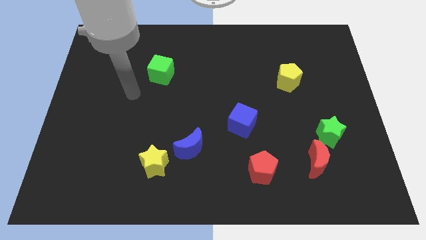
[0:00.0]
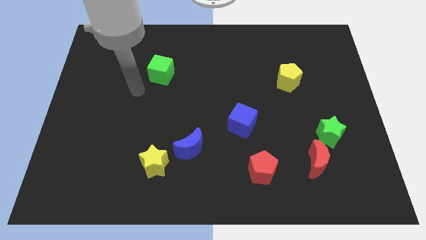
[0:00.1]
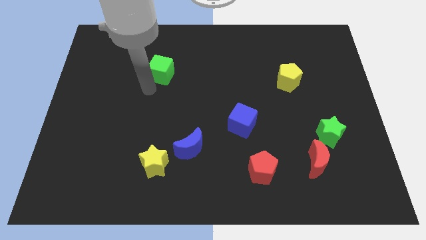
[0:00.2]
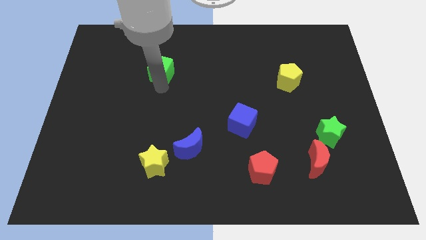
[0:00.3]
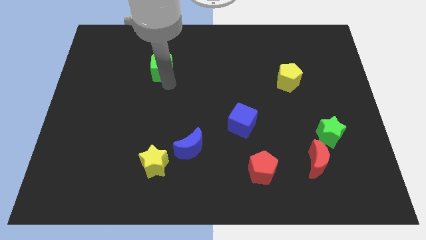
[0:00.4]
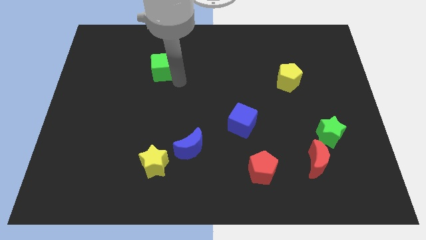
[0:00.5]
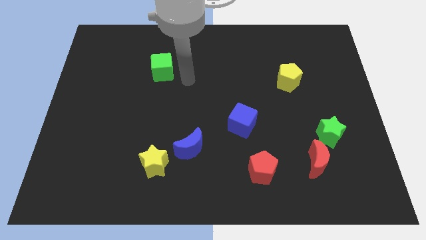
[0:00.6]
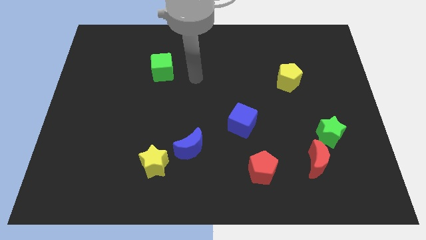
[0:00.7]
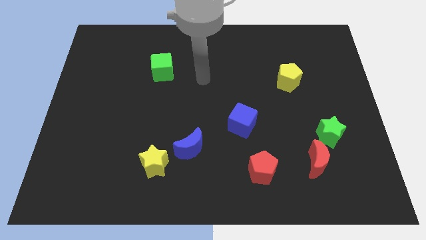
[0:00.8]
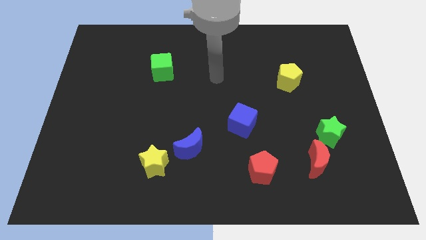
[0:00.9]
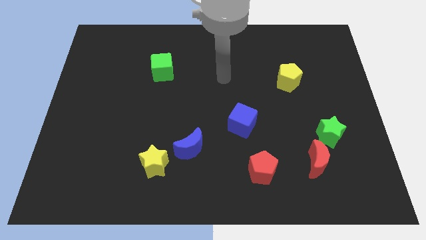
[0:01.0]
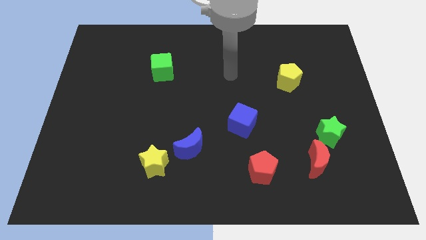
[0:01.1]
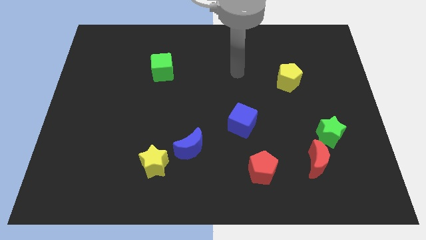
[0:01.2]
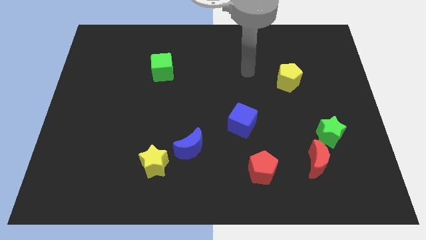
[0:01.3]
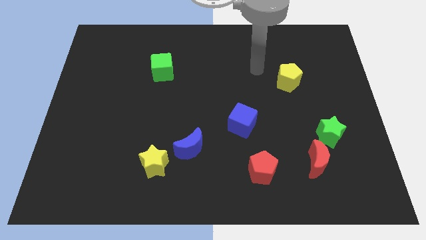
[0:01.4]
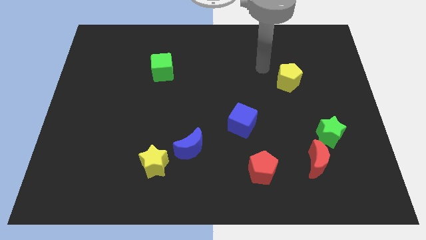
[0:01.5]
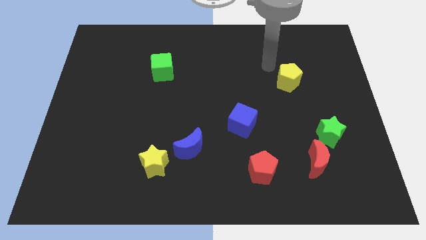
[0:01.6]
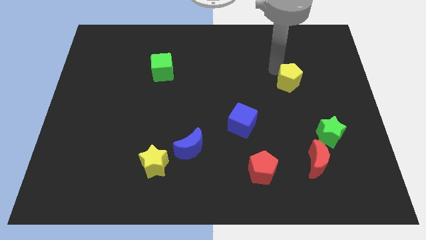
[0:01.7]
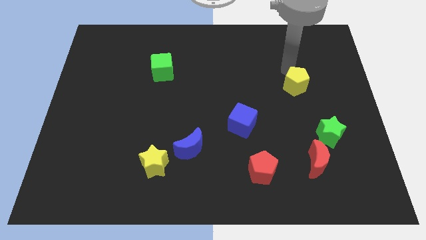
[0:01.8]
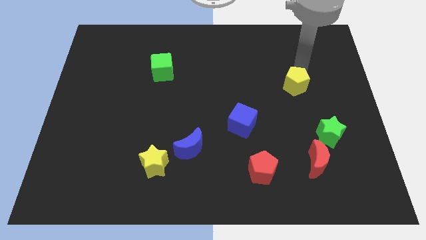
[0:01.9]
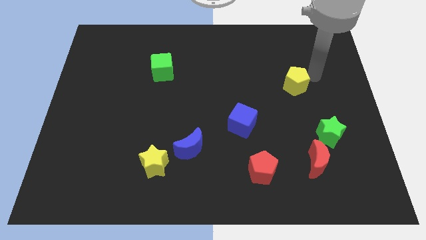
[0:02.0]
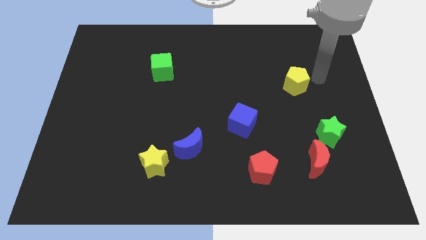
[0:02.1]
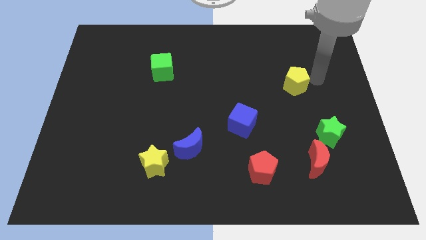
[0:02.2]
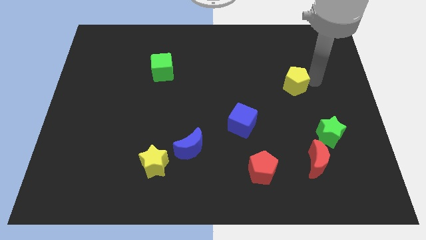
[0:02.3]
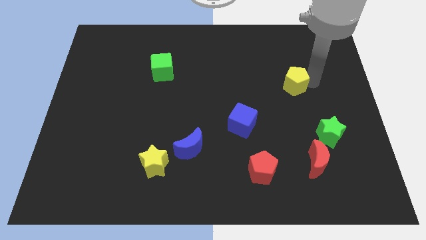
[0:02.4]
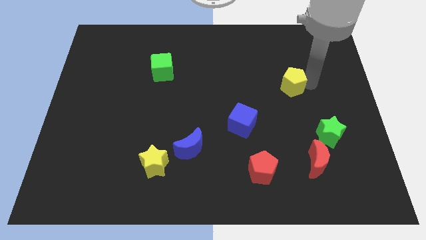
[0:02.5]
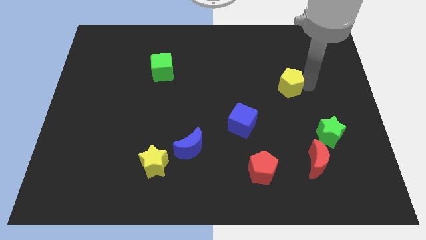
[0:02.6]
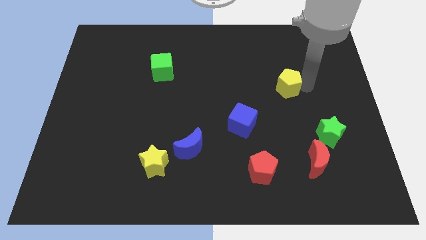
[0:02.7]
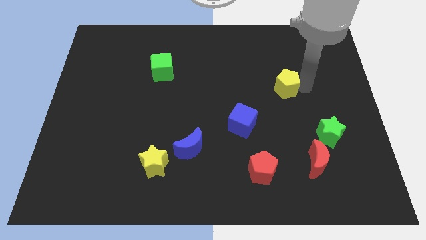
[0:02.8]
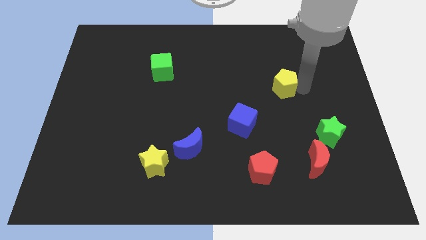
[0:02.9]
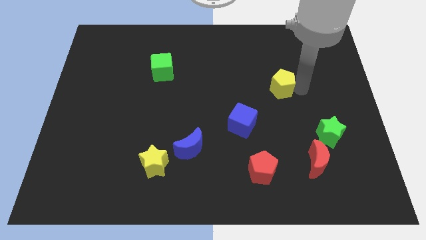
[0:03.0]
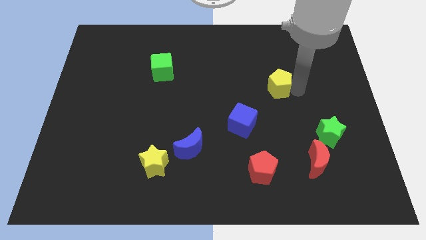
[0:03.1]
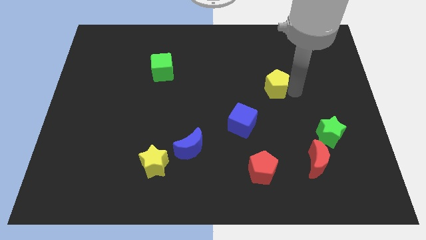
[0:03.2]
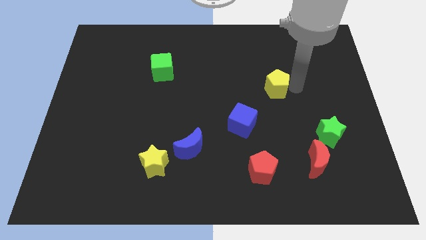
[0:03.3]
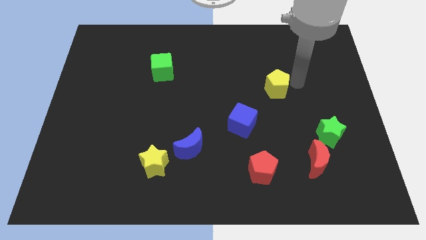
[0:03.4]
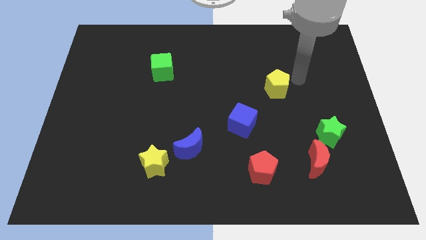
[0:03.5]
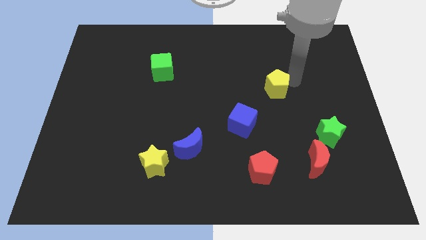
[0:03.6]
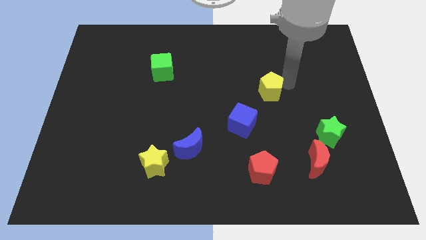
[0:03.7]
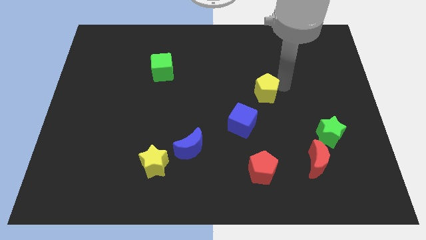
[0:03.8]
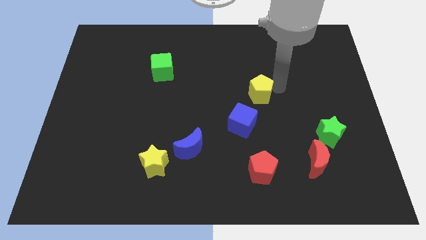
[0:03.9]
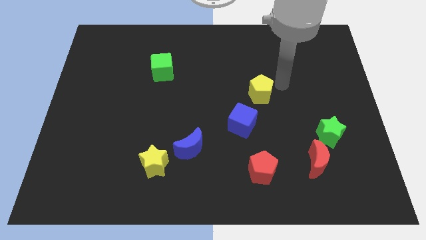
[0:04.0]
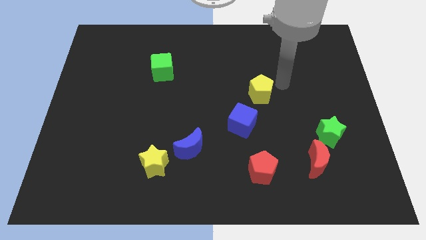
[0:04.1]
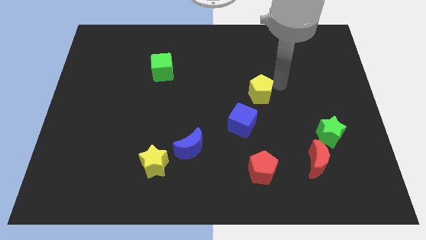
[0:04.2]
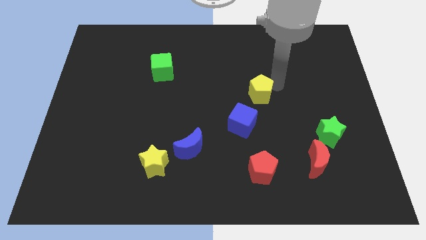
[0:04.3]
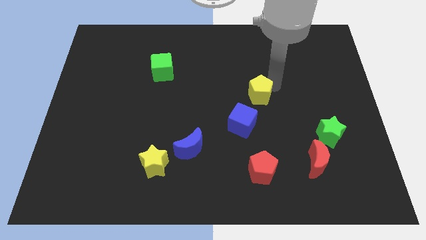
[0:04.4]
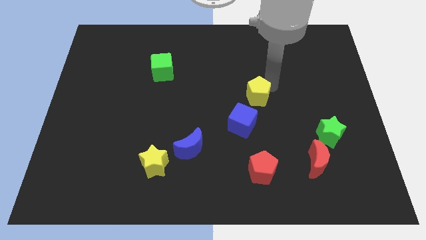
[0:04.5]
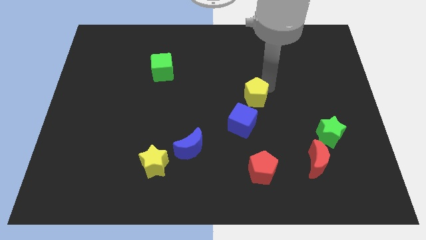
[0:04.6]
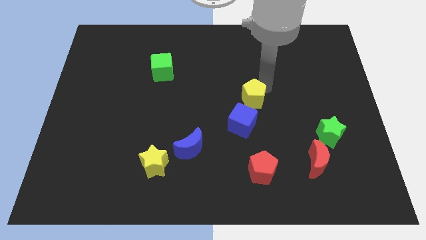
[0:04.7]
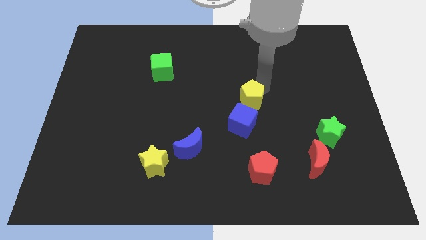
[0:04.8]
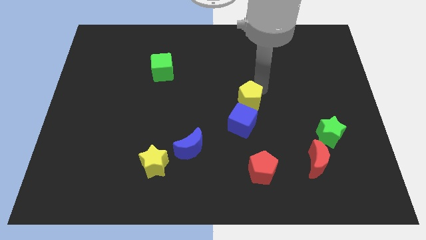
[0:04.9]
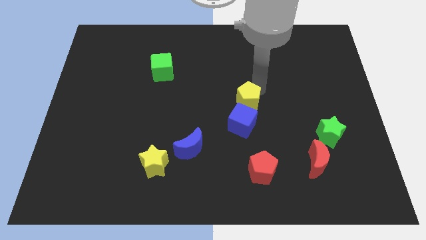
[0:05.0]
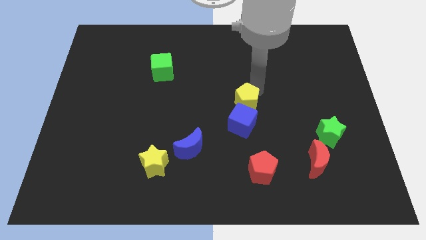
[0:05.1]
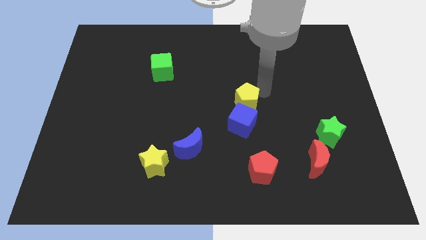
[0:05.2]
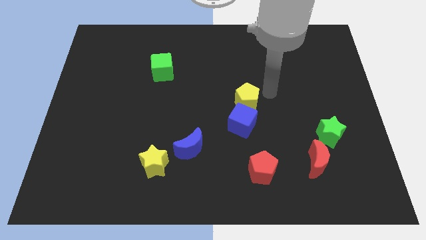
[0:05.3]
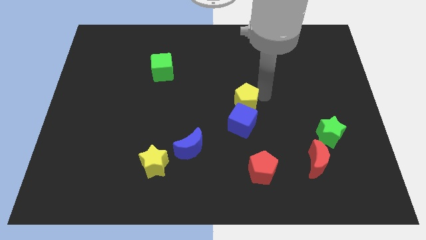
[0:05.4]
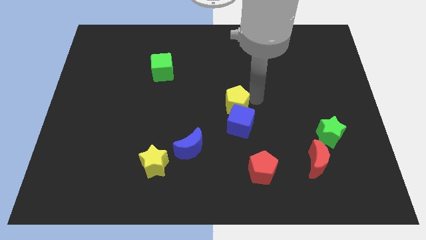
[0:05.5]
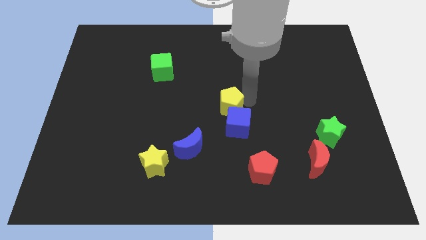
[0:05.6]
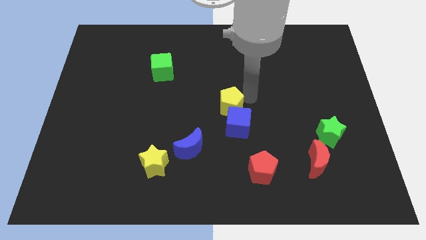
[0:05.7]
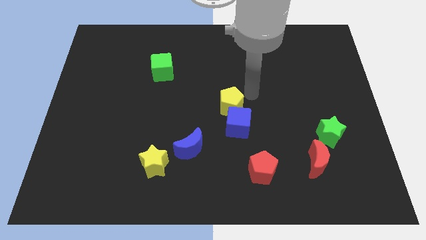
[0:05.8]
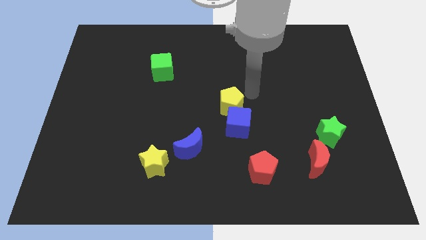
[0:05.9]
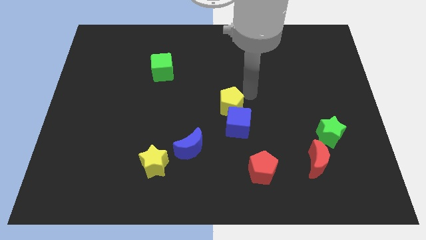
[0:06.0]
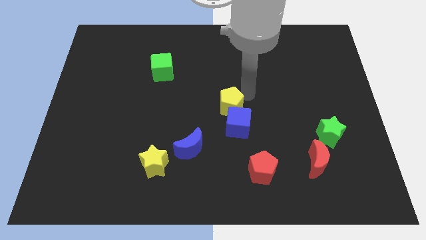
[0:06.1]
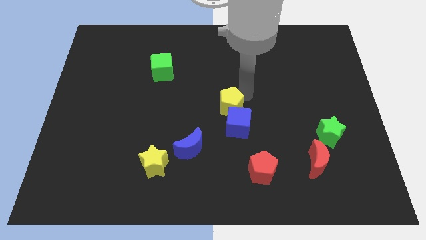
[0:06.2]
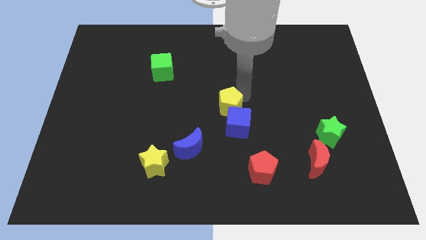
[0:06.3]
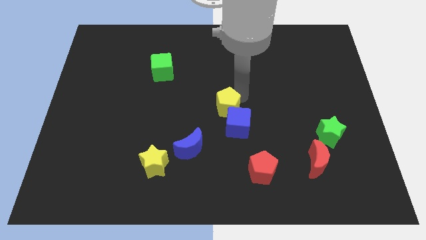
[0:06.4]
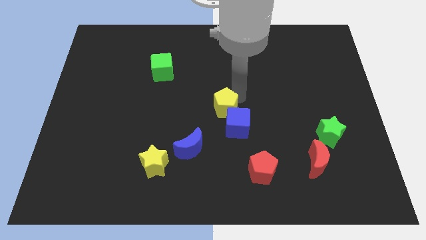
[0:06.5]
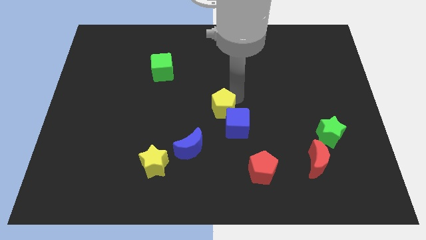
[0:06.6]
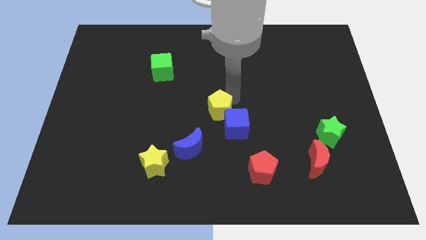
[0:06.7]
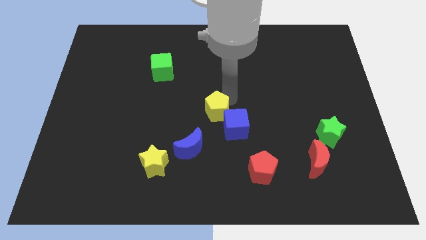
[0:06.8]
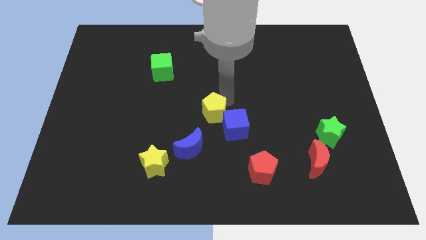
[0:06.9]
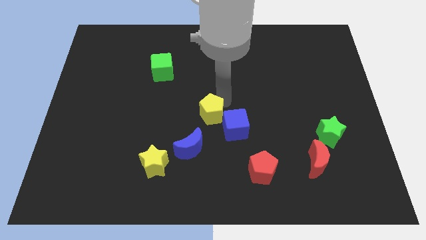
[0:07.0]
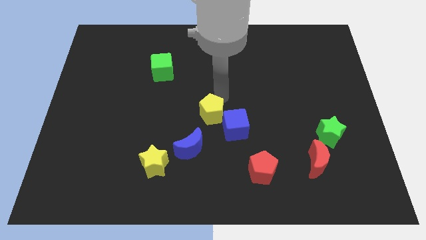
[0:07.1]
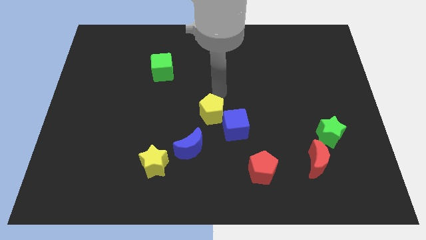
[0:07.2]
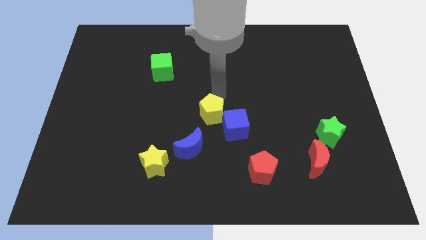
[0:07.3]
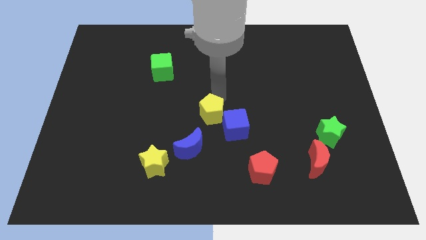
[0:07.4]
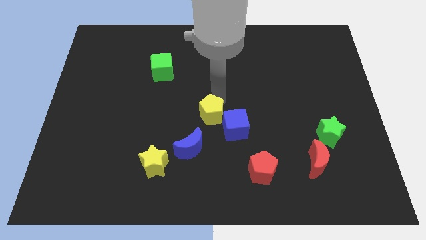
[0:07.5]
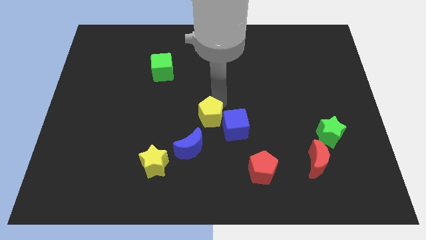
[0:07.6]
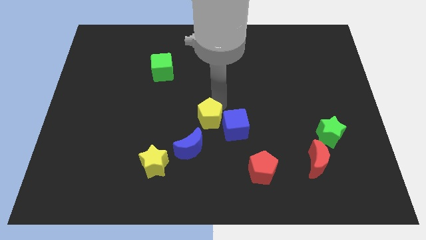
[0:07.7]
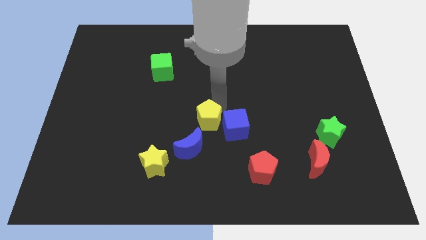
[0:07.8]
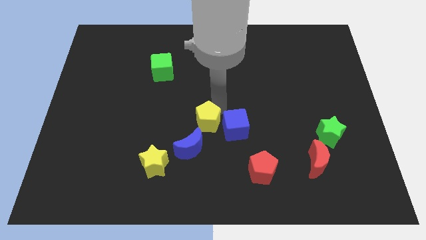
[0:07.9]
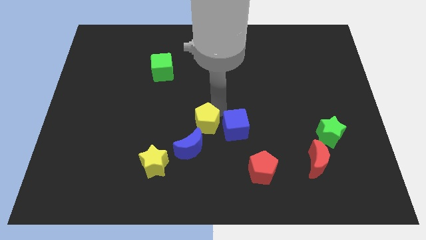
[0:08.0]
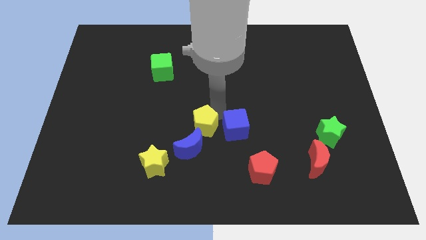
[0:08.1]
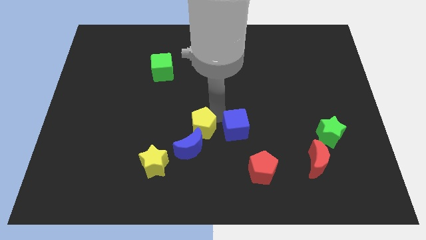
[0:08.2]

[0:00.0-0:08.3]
move the yellow pentagon towards the blue moon
